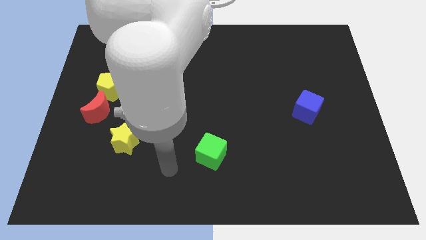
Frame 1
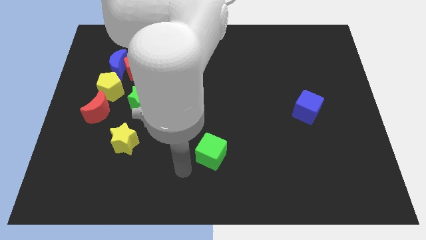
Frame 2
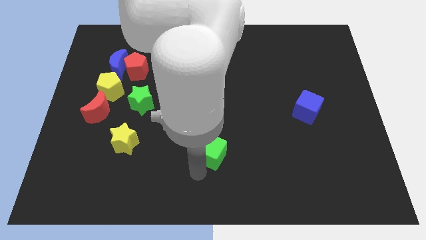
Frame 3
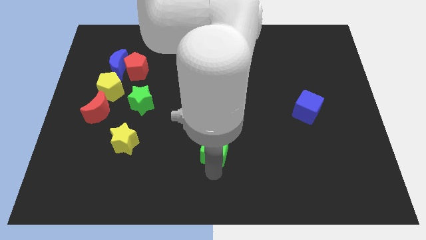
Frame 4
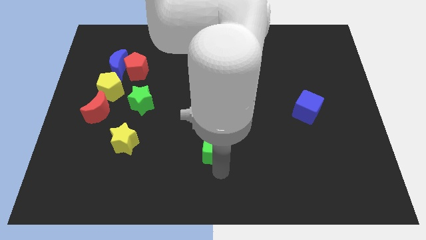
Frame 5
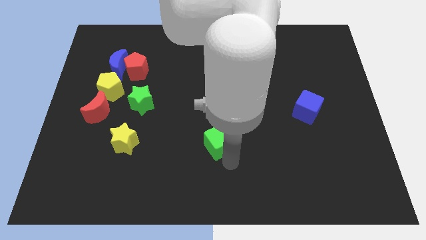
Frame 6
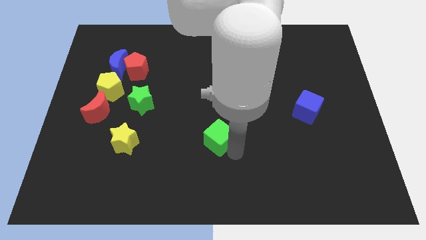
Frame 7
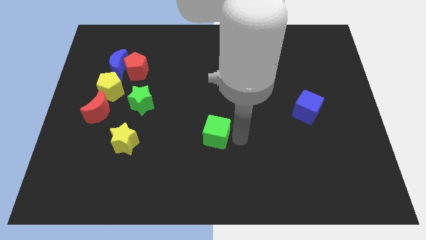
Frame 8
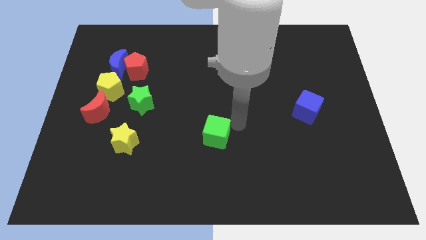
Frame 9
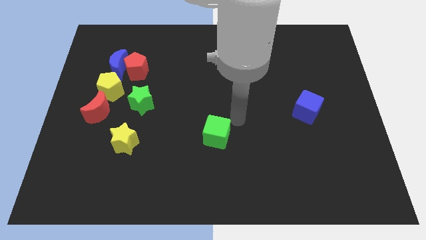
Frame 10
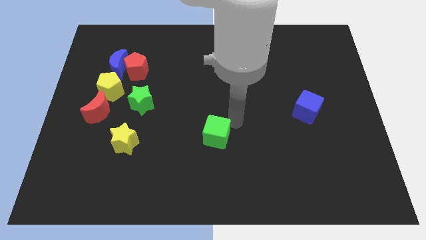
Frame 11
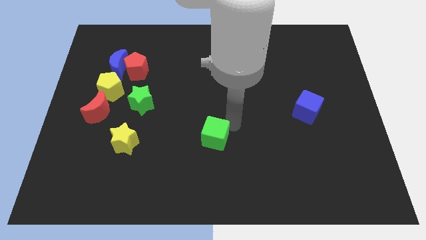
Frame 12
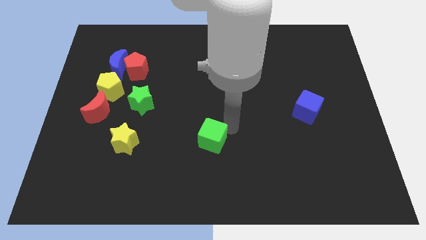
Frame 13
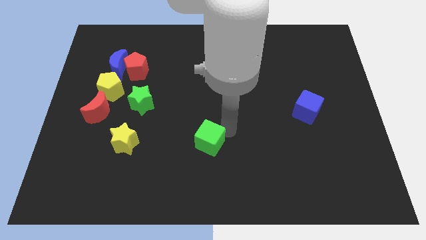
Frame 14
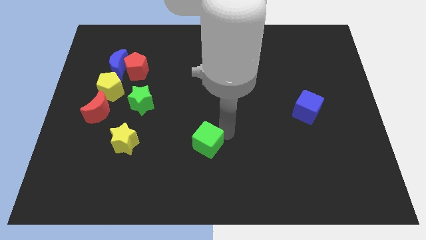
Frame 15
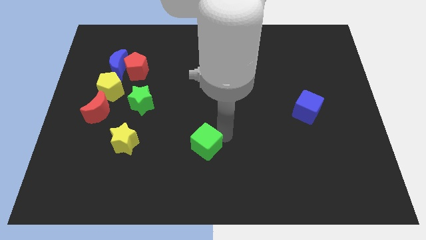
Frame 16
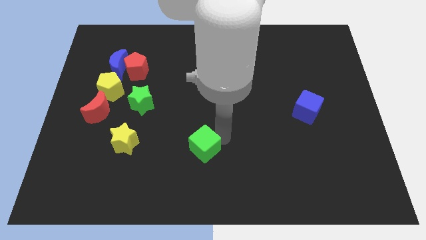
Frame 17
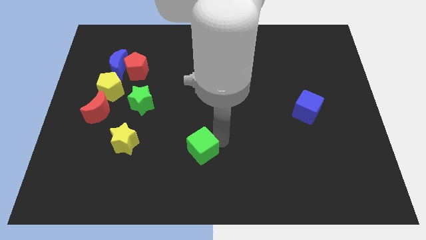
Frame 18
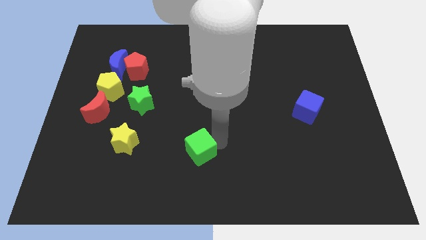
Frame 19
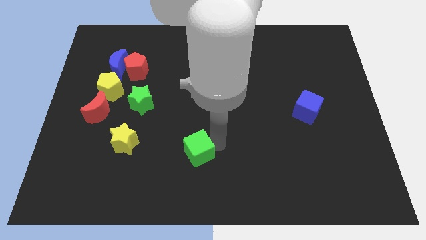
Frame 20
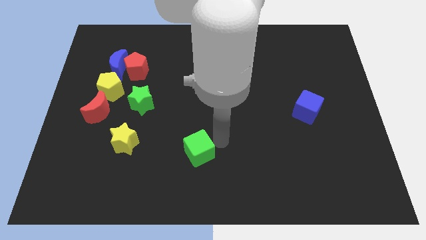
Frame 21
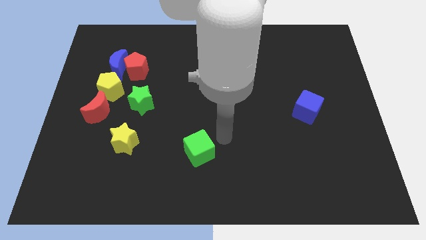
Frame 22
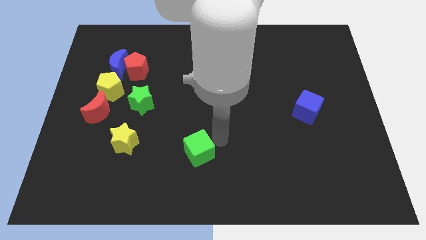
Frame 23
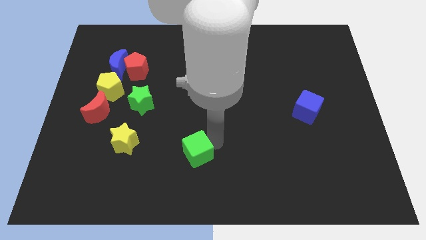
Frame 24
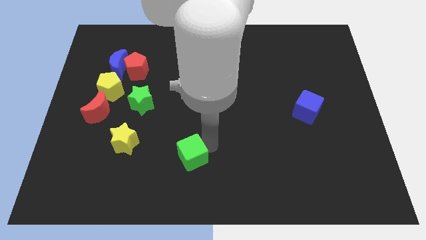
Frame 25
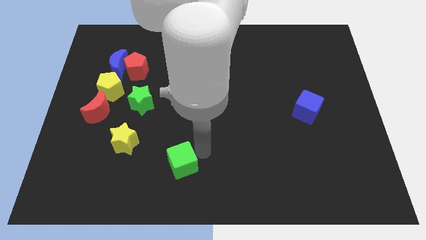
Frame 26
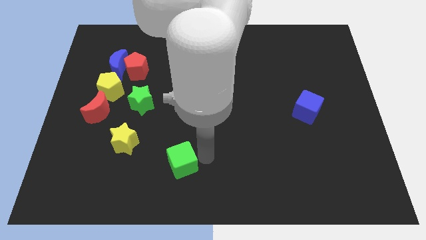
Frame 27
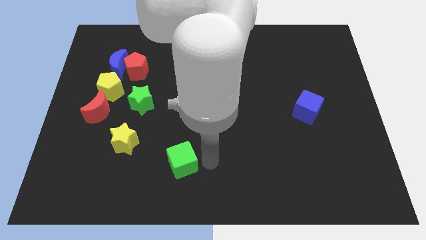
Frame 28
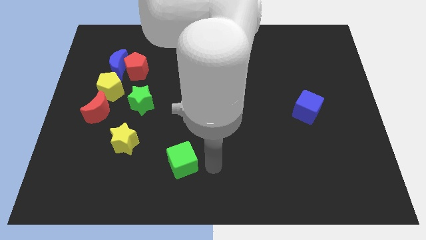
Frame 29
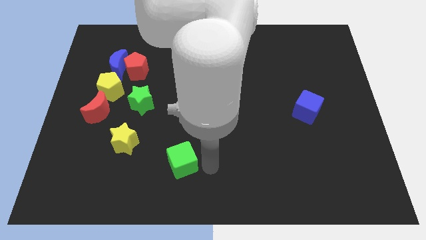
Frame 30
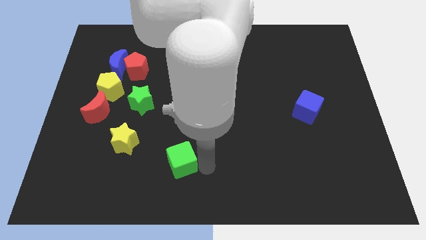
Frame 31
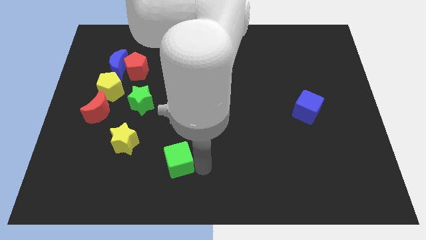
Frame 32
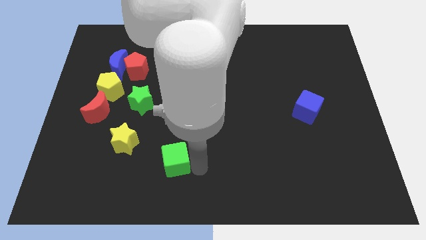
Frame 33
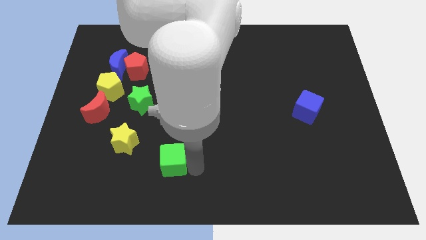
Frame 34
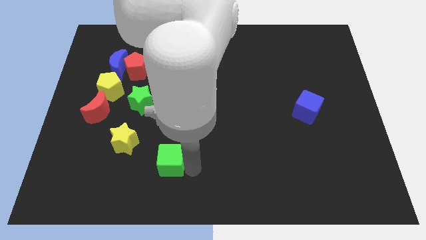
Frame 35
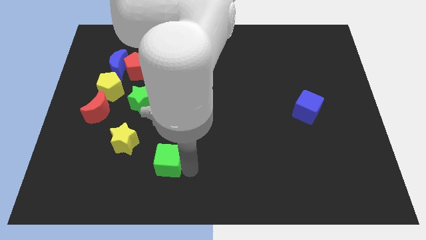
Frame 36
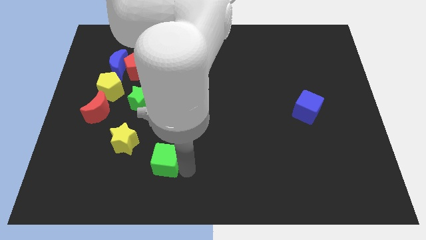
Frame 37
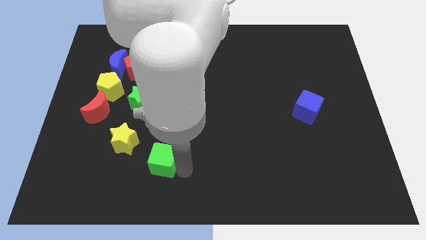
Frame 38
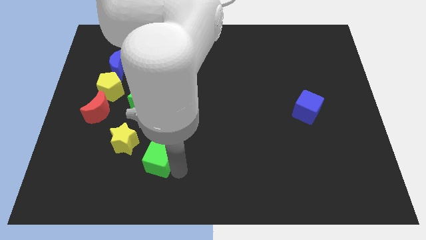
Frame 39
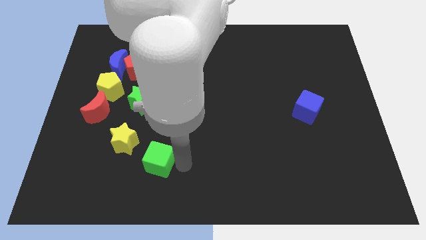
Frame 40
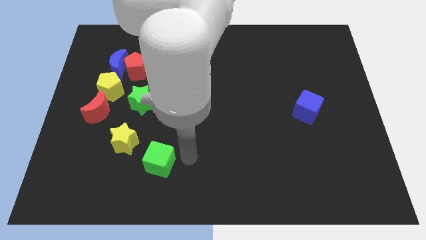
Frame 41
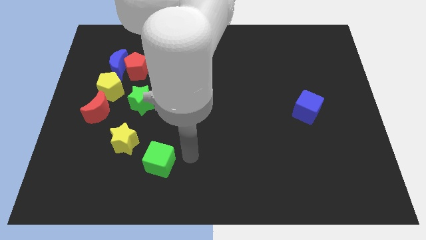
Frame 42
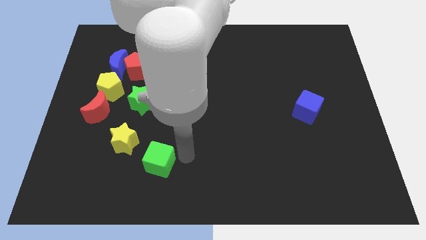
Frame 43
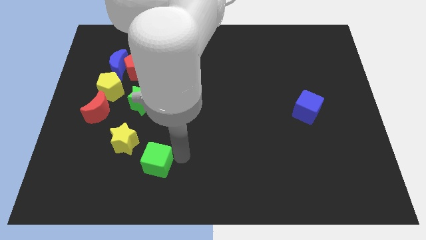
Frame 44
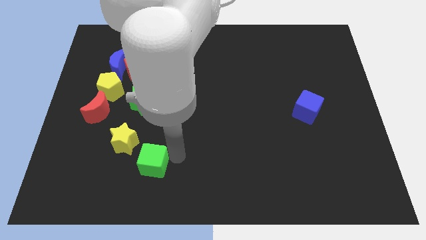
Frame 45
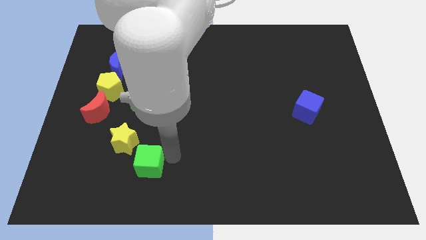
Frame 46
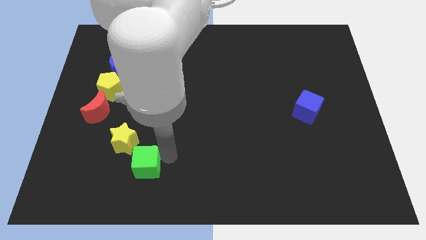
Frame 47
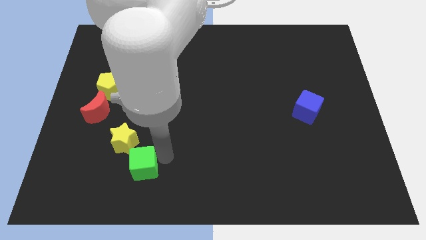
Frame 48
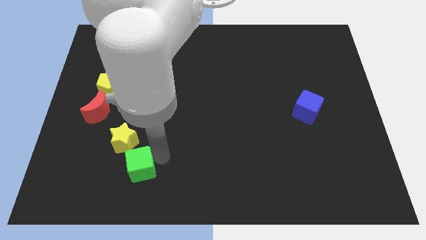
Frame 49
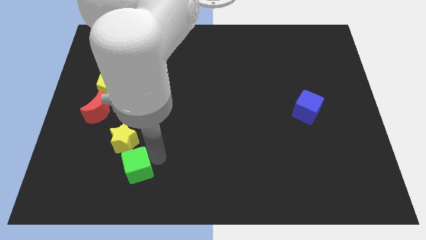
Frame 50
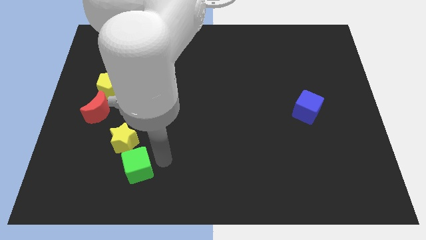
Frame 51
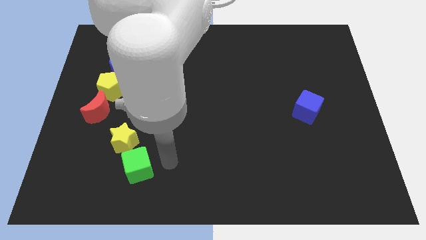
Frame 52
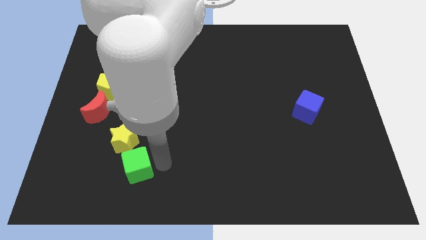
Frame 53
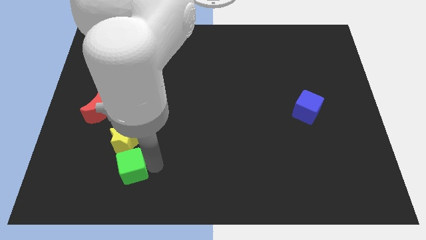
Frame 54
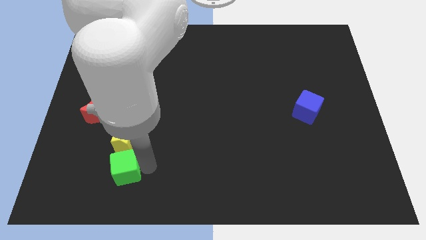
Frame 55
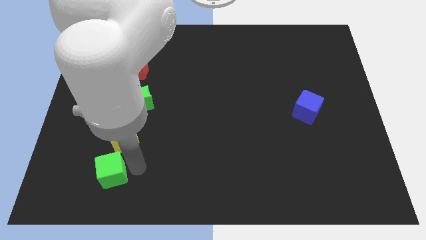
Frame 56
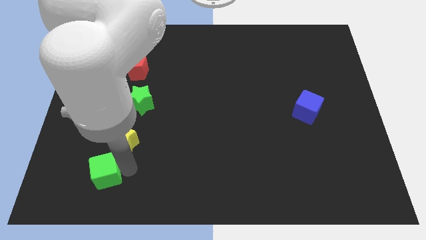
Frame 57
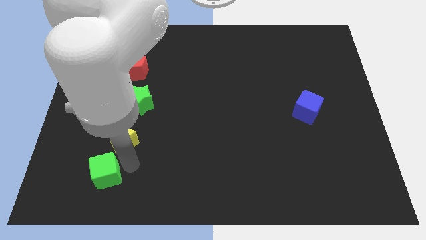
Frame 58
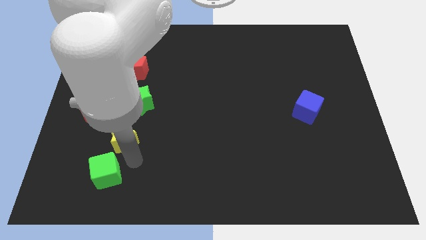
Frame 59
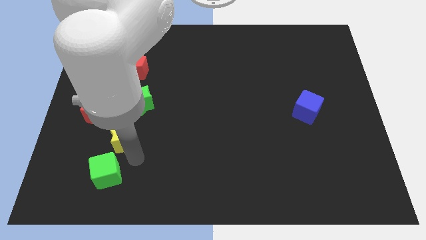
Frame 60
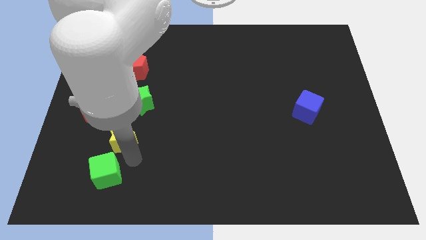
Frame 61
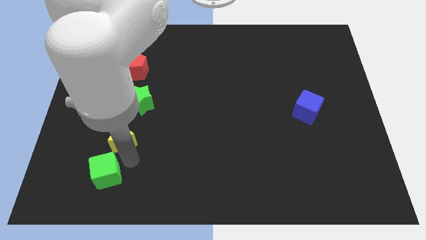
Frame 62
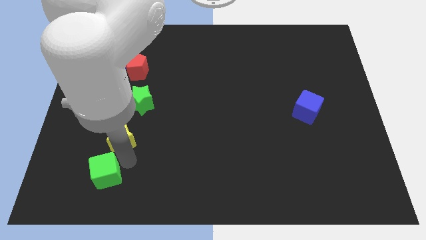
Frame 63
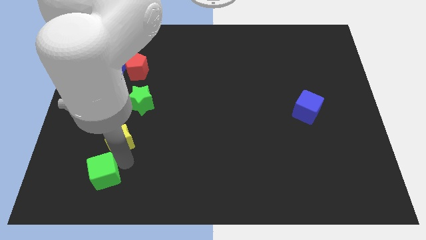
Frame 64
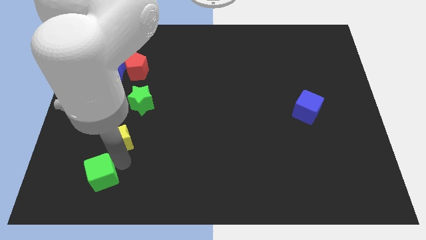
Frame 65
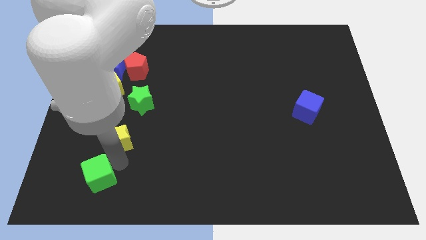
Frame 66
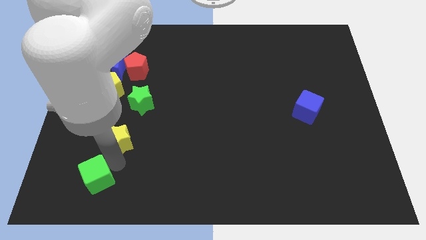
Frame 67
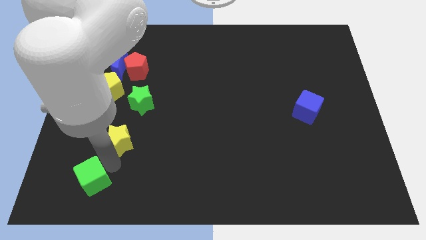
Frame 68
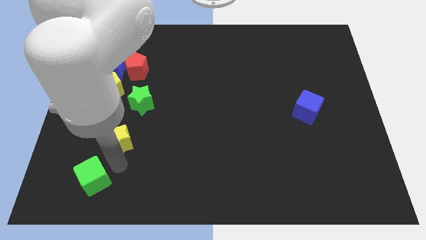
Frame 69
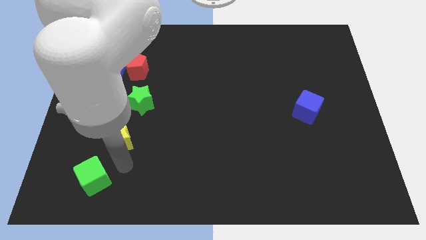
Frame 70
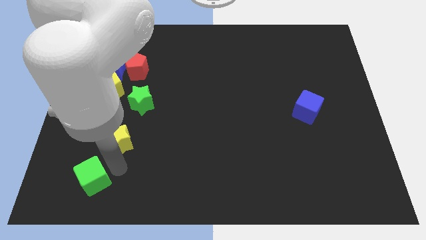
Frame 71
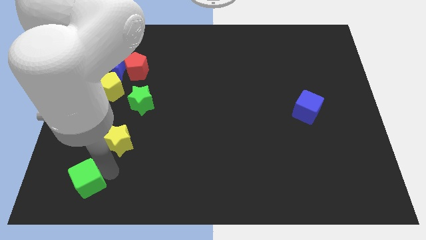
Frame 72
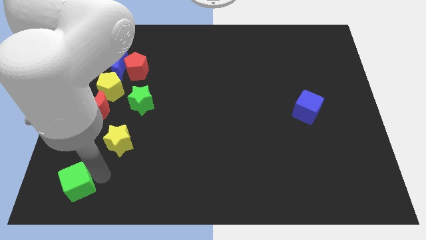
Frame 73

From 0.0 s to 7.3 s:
move the green cube to the bottom left
